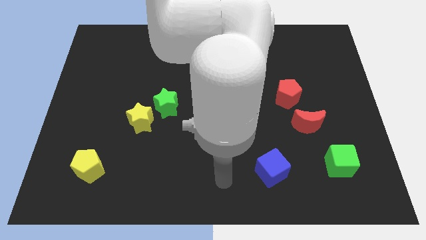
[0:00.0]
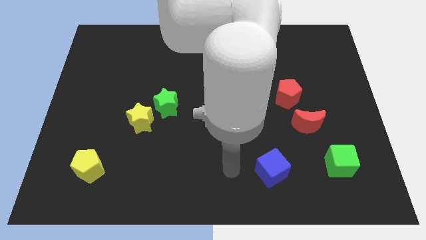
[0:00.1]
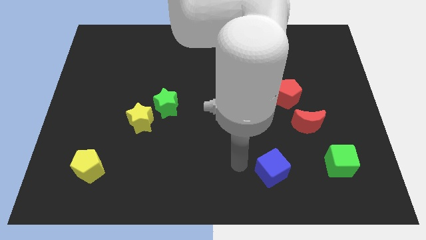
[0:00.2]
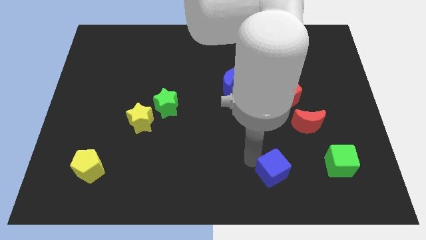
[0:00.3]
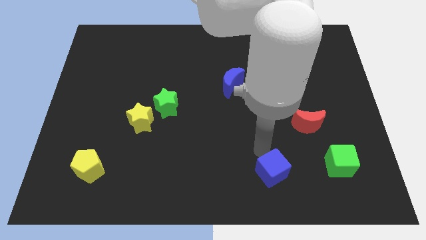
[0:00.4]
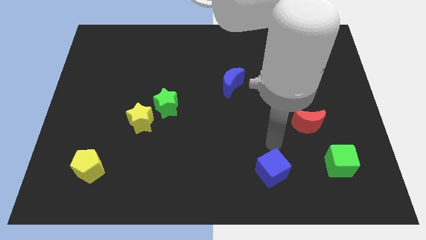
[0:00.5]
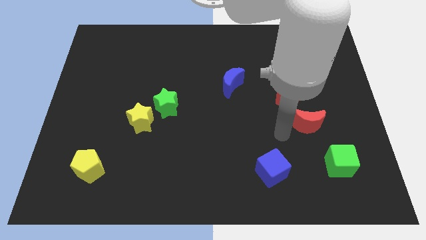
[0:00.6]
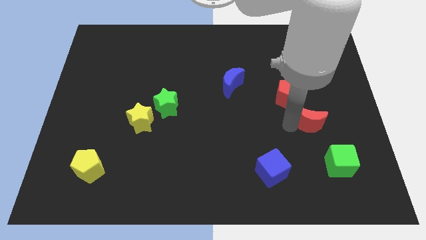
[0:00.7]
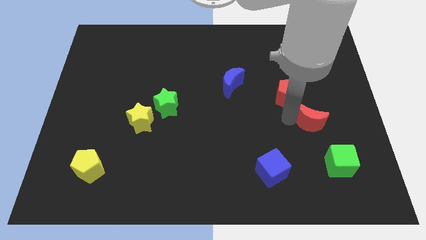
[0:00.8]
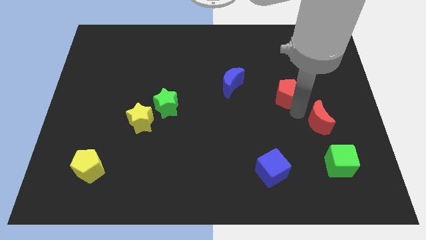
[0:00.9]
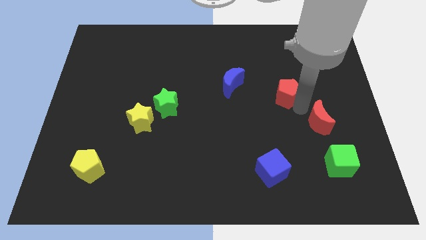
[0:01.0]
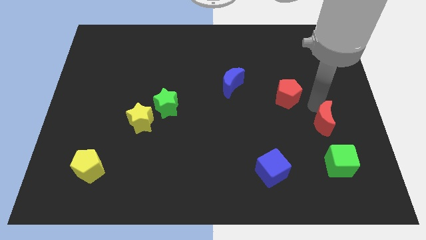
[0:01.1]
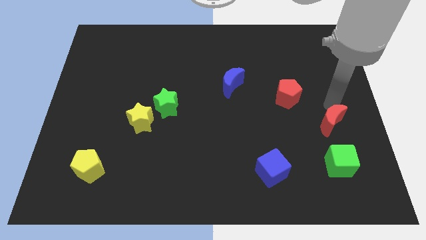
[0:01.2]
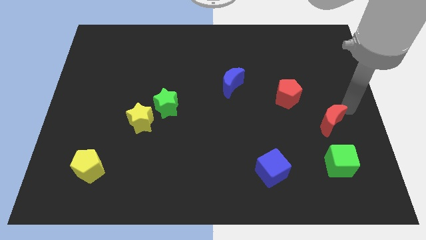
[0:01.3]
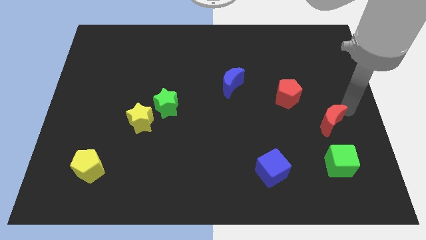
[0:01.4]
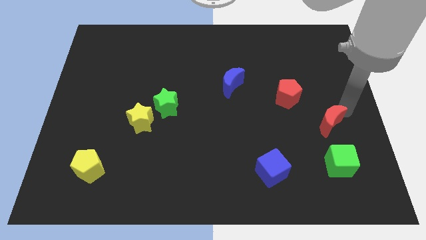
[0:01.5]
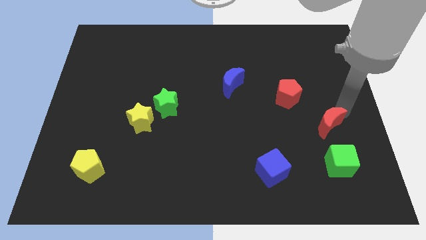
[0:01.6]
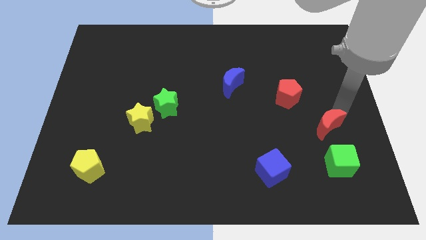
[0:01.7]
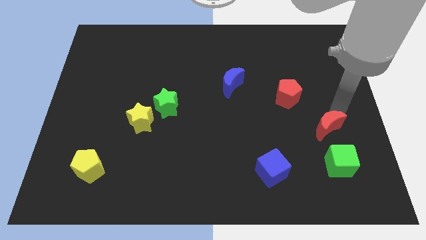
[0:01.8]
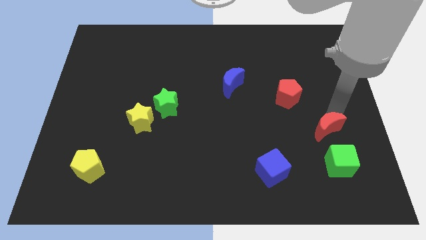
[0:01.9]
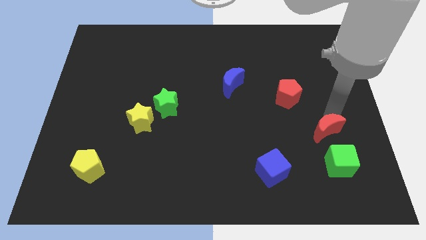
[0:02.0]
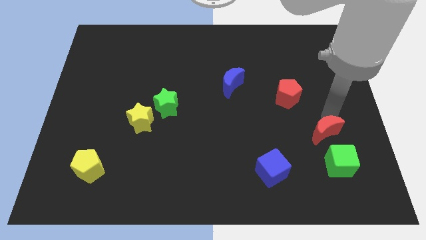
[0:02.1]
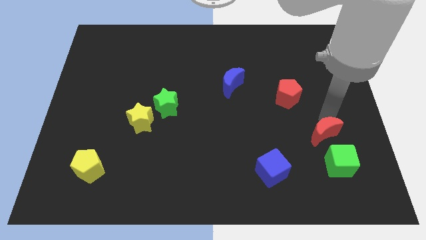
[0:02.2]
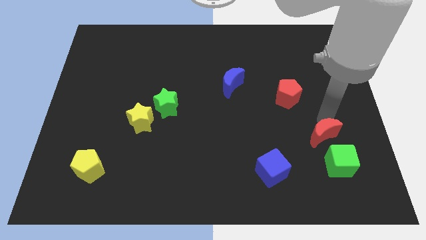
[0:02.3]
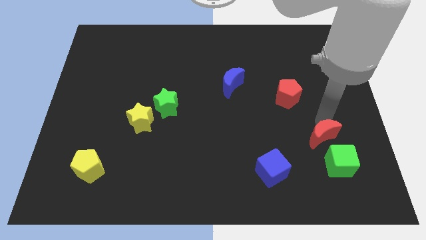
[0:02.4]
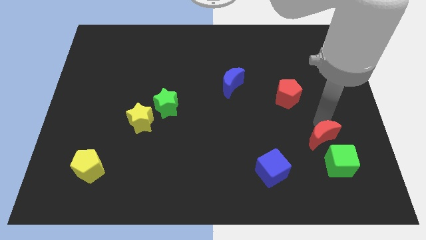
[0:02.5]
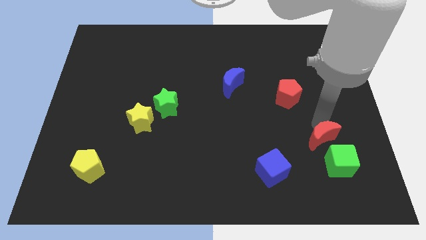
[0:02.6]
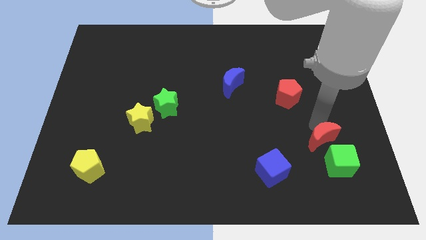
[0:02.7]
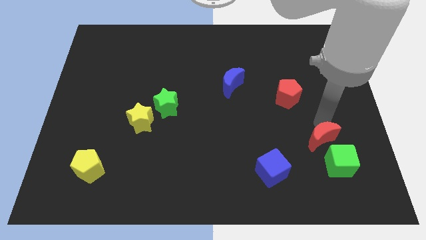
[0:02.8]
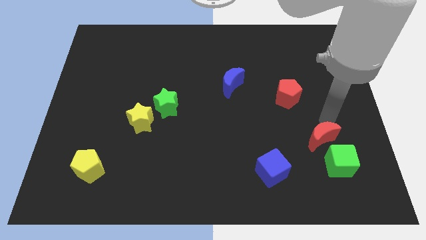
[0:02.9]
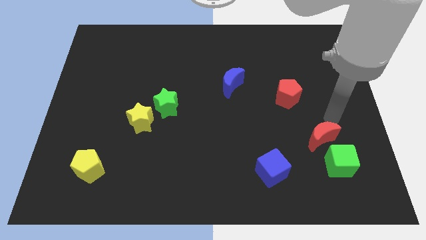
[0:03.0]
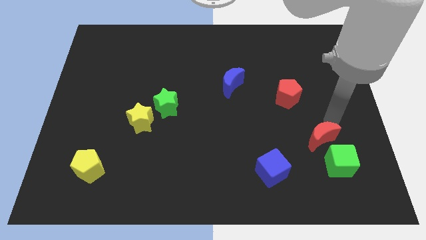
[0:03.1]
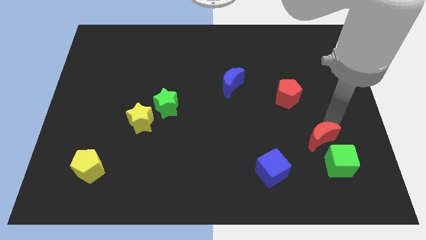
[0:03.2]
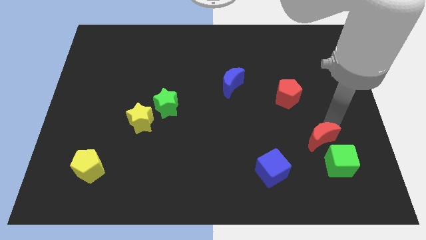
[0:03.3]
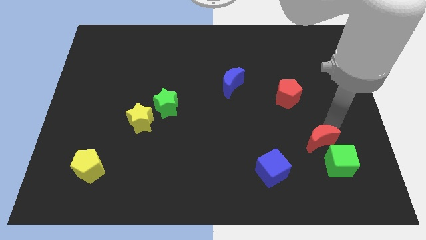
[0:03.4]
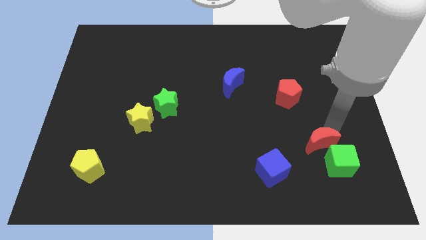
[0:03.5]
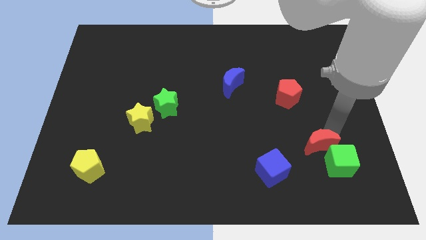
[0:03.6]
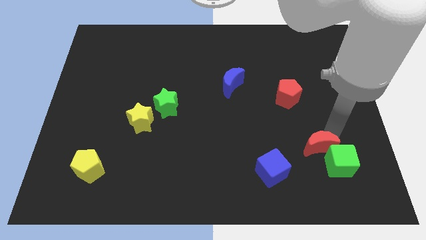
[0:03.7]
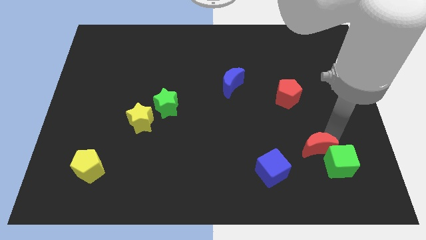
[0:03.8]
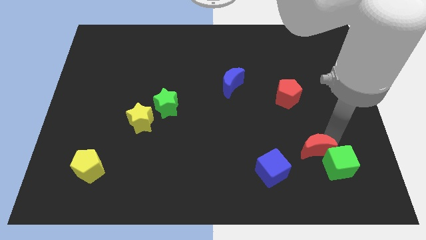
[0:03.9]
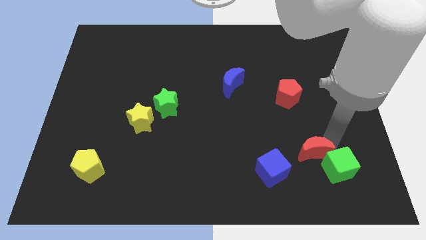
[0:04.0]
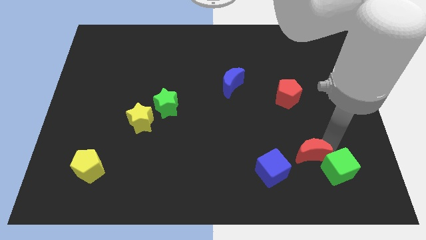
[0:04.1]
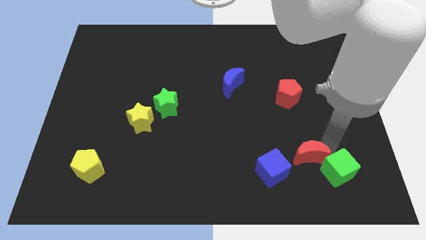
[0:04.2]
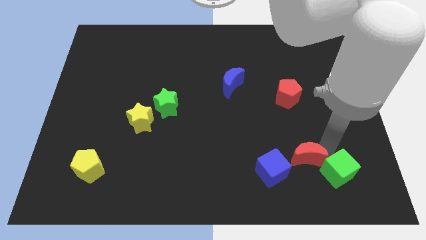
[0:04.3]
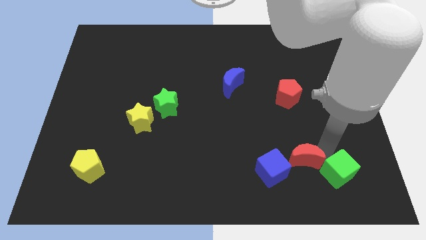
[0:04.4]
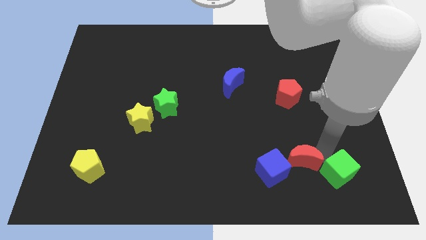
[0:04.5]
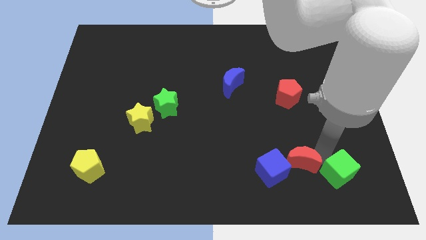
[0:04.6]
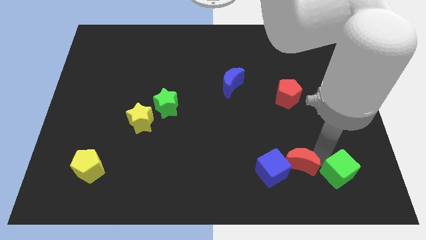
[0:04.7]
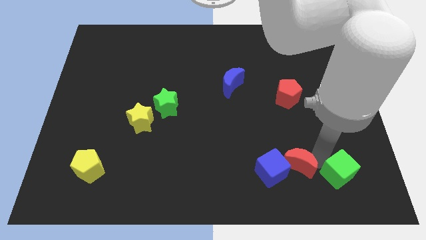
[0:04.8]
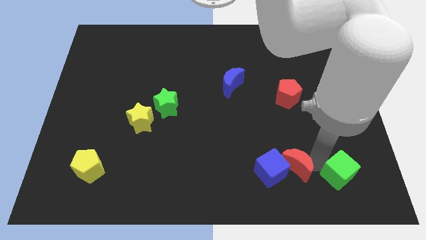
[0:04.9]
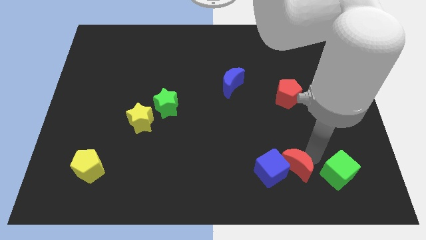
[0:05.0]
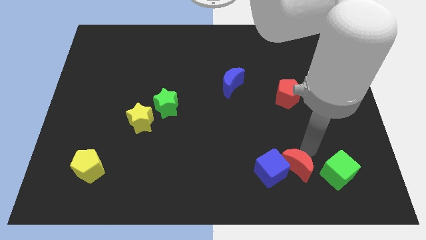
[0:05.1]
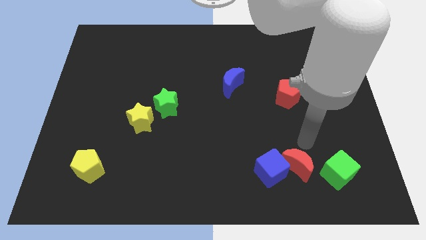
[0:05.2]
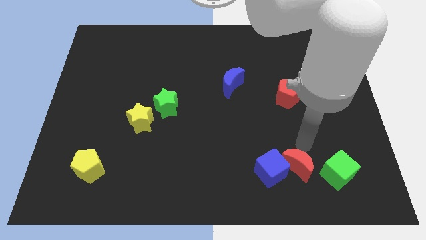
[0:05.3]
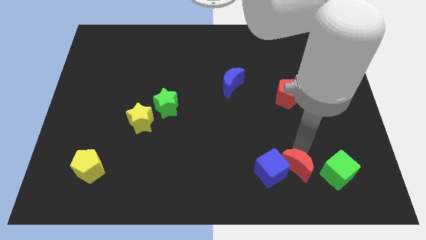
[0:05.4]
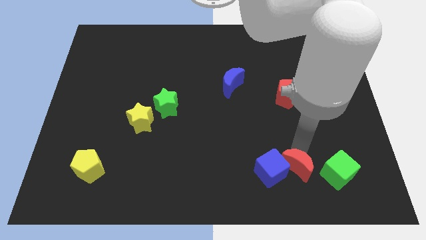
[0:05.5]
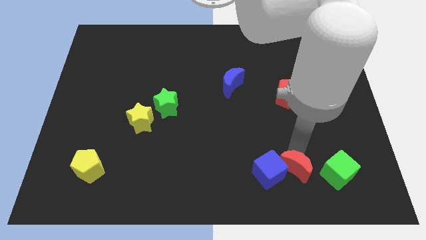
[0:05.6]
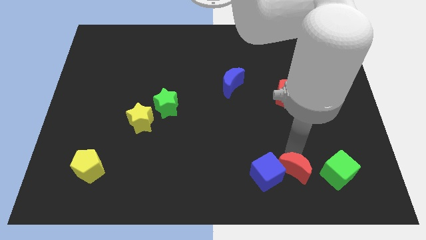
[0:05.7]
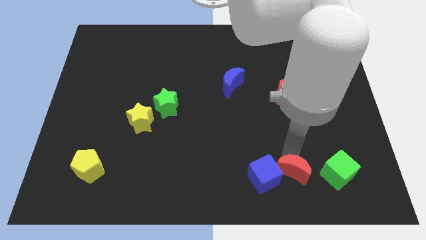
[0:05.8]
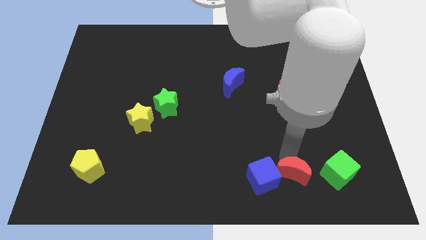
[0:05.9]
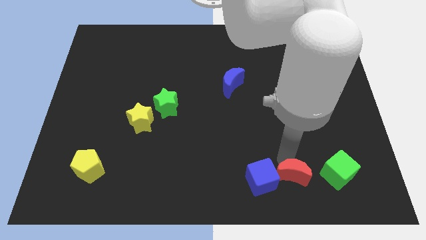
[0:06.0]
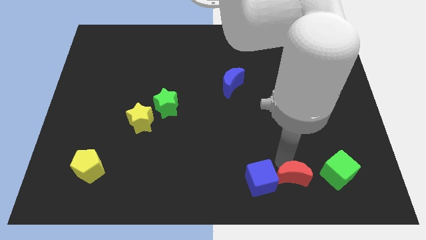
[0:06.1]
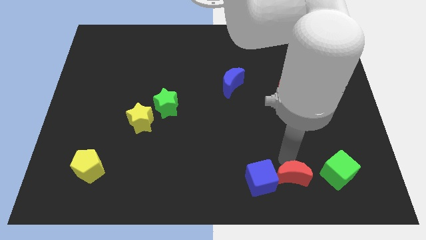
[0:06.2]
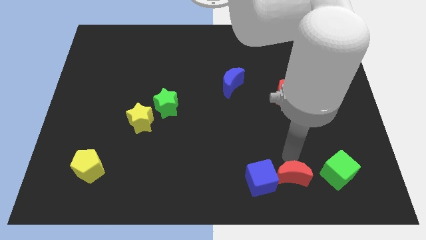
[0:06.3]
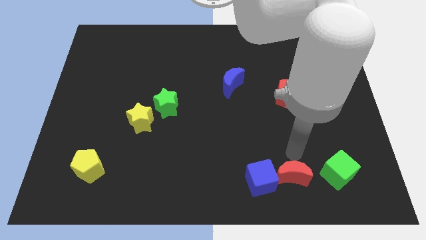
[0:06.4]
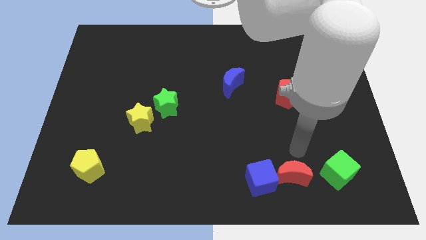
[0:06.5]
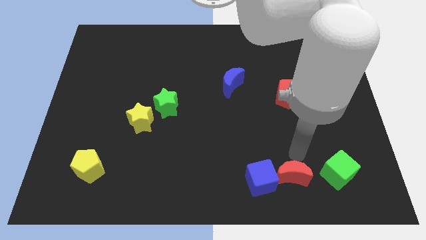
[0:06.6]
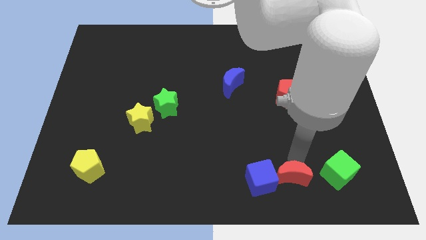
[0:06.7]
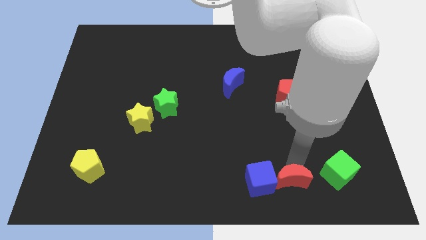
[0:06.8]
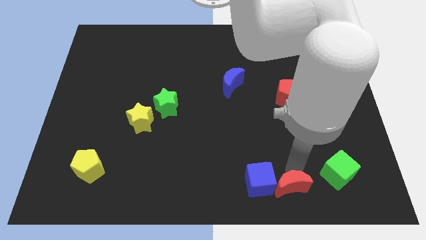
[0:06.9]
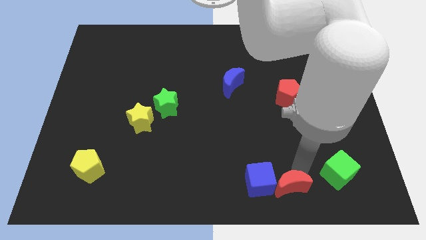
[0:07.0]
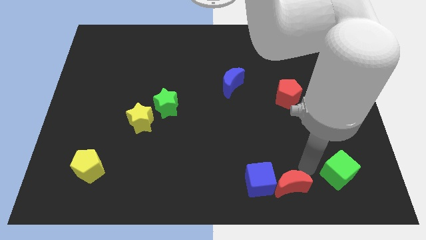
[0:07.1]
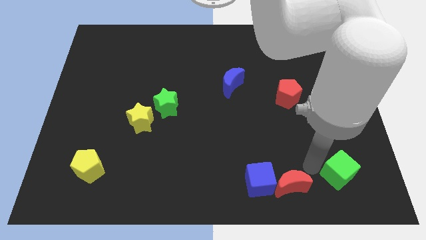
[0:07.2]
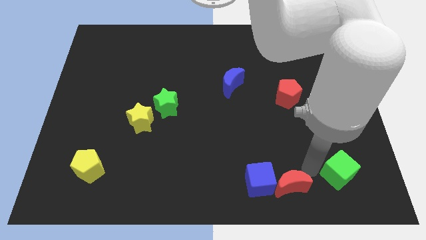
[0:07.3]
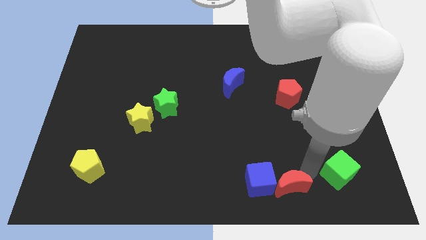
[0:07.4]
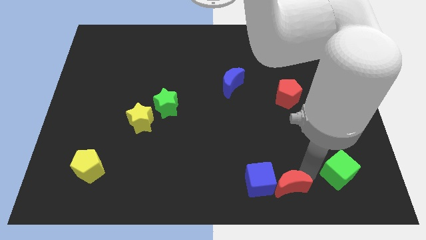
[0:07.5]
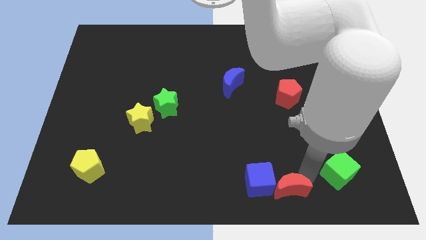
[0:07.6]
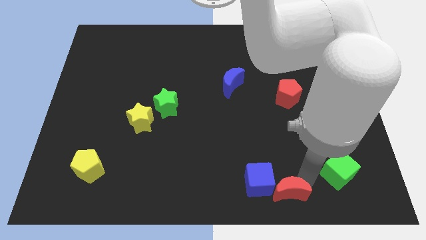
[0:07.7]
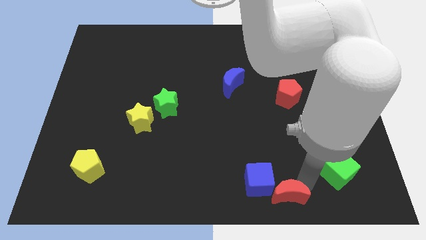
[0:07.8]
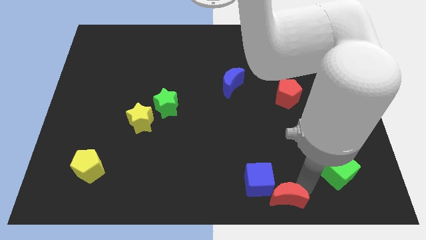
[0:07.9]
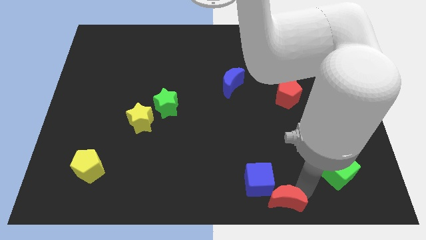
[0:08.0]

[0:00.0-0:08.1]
move the red moon to the bottom side

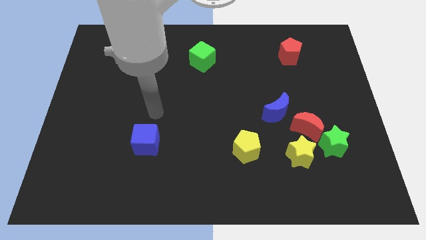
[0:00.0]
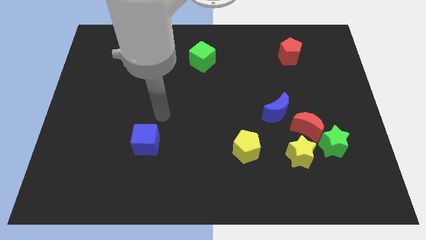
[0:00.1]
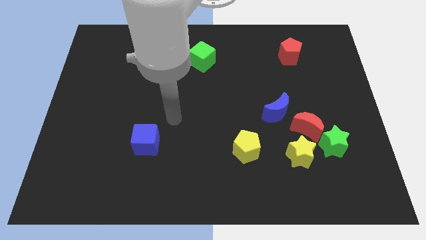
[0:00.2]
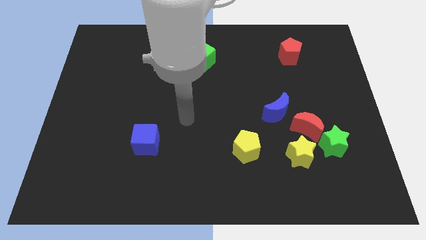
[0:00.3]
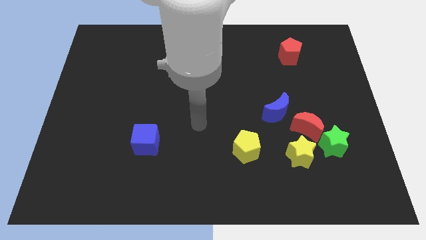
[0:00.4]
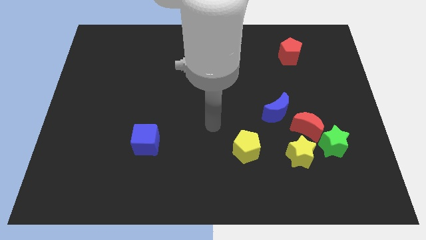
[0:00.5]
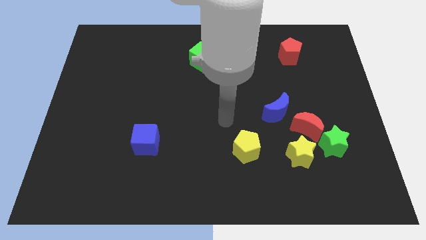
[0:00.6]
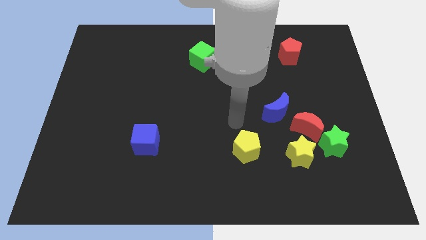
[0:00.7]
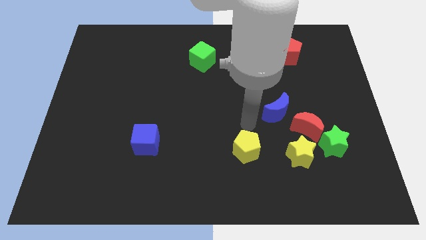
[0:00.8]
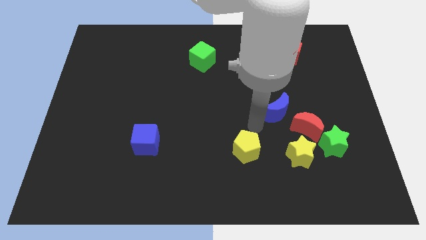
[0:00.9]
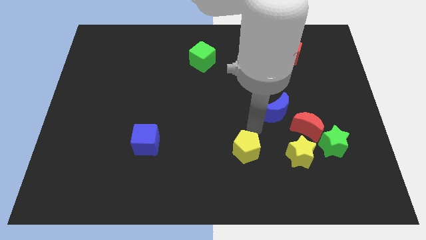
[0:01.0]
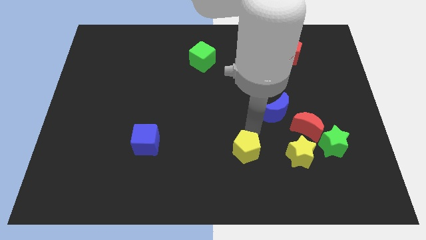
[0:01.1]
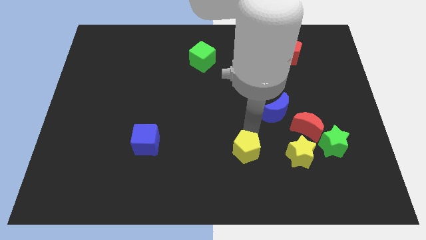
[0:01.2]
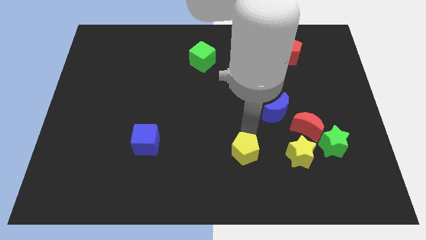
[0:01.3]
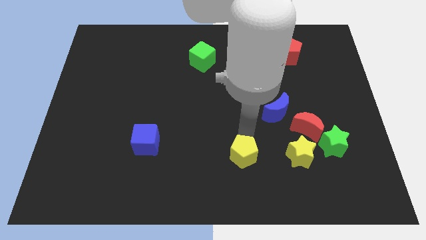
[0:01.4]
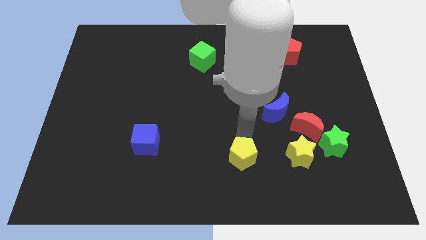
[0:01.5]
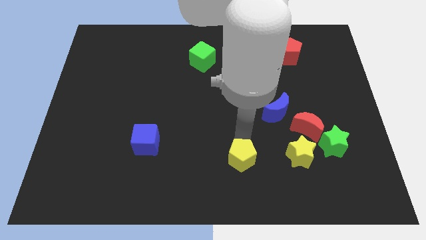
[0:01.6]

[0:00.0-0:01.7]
move the yellow pentagon to the bottom side
